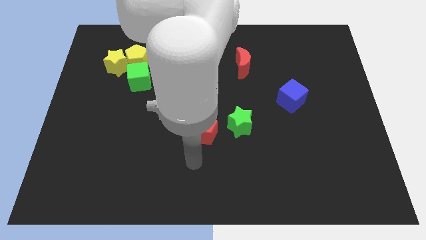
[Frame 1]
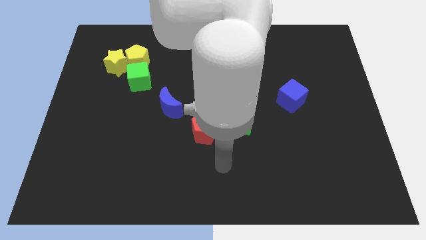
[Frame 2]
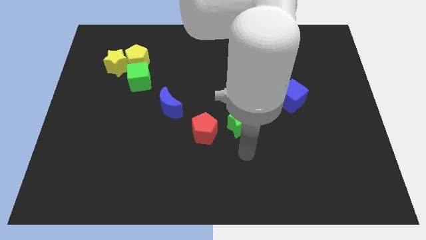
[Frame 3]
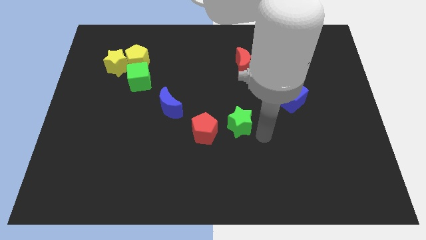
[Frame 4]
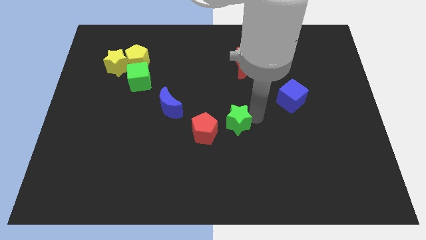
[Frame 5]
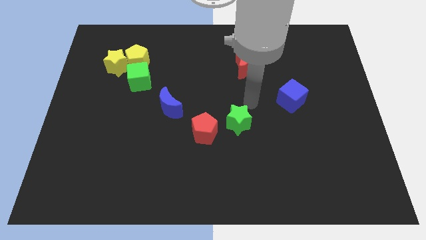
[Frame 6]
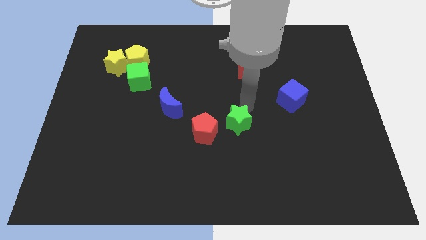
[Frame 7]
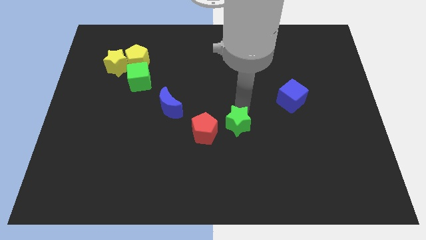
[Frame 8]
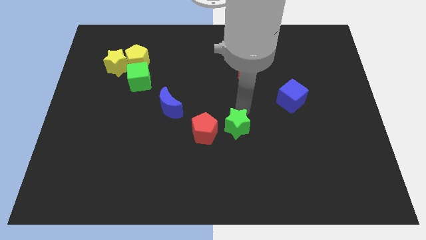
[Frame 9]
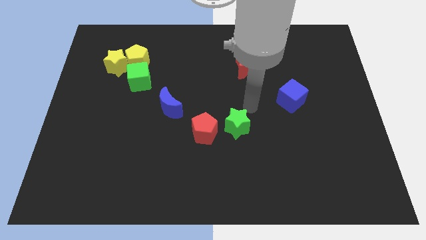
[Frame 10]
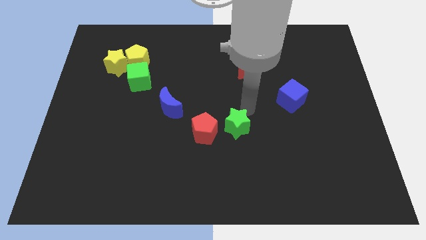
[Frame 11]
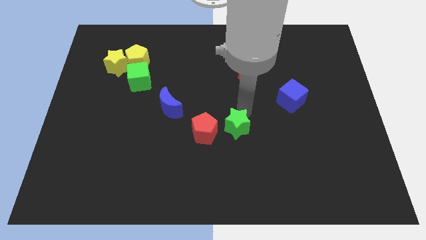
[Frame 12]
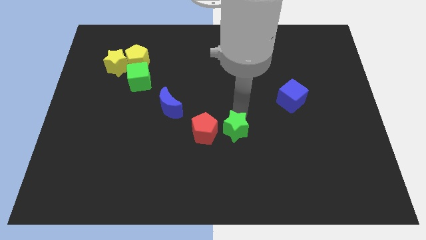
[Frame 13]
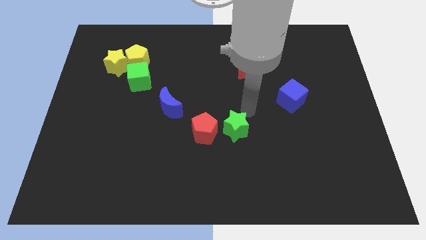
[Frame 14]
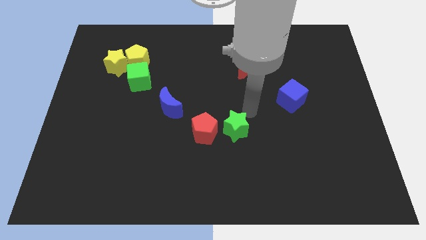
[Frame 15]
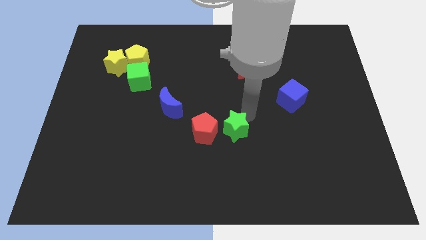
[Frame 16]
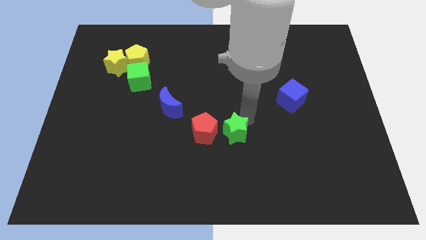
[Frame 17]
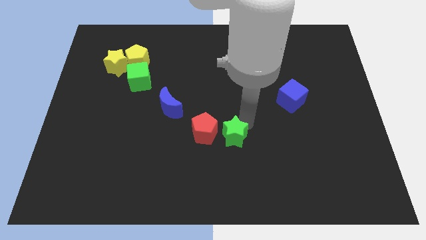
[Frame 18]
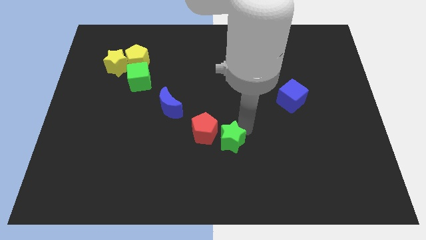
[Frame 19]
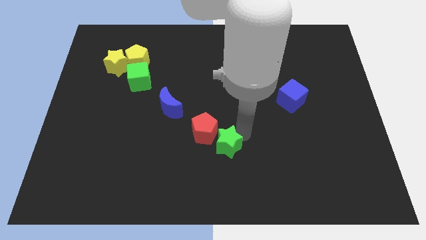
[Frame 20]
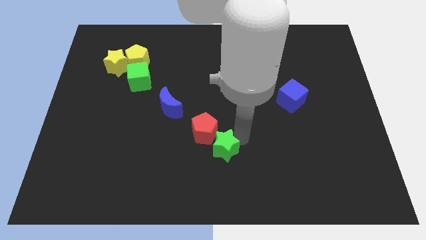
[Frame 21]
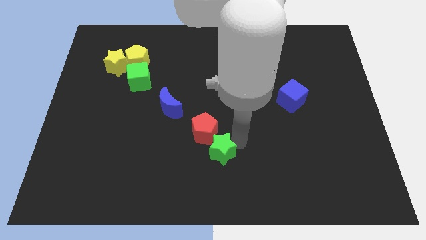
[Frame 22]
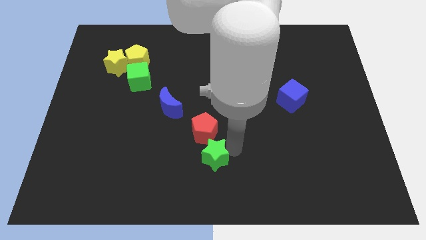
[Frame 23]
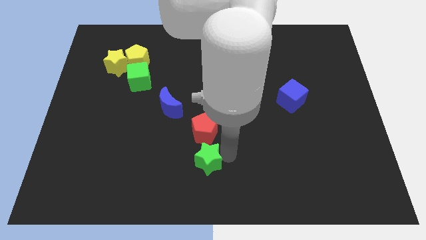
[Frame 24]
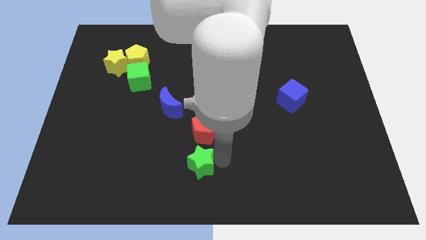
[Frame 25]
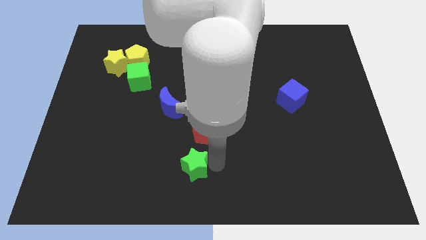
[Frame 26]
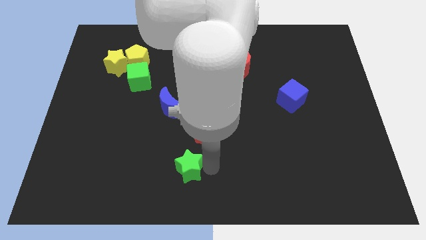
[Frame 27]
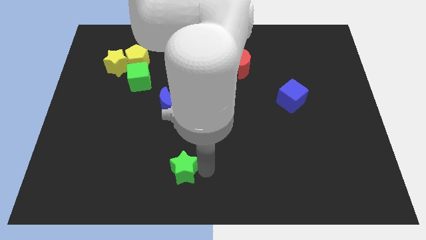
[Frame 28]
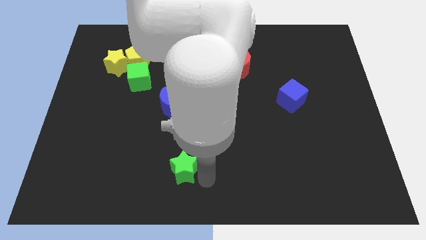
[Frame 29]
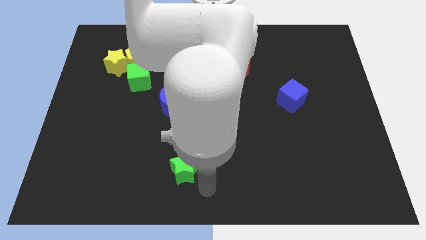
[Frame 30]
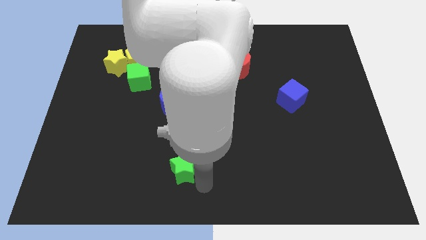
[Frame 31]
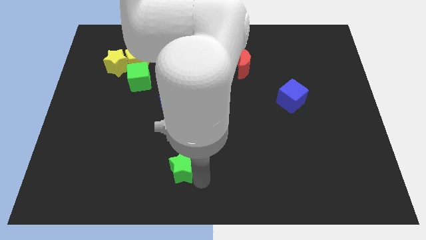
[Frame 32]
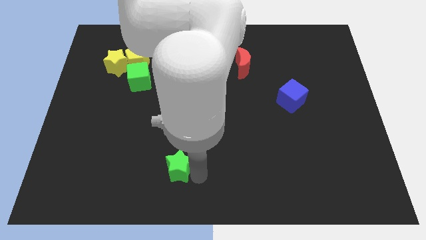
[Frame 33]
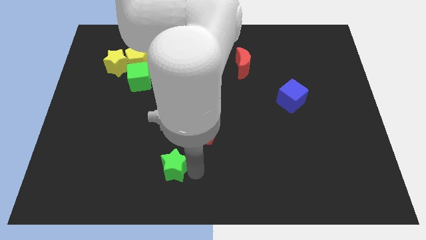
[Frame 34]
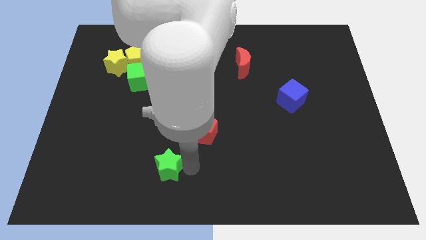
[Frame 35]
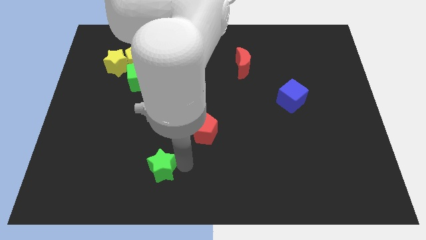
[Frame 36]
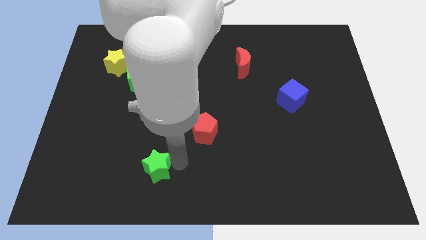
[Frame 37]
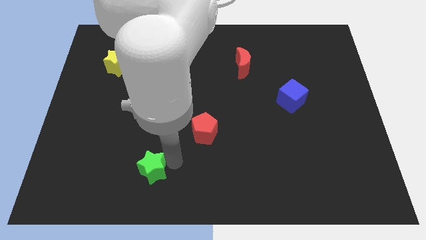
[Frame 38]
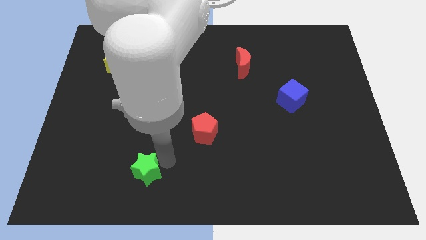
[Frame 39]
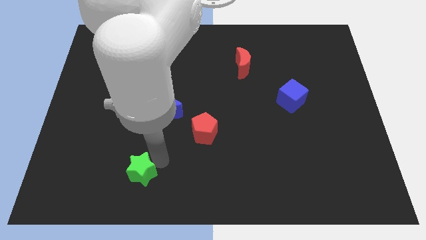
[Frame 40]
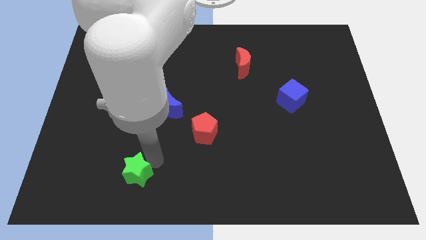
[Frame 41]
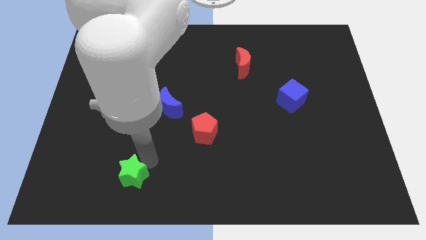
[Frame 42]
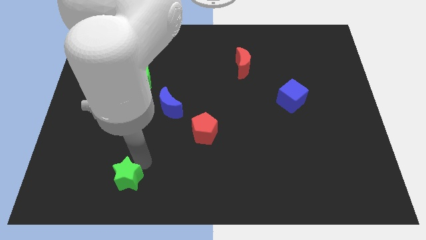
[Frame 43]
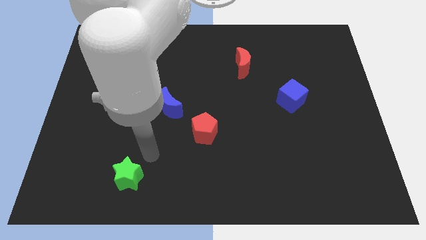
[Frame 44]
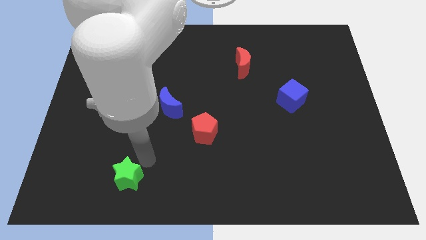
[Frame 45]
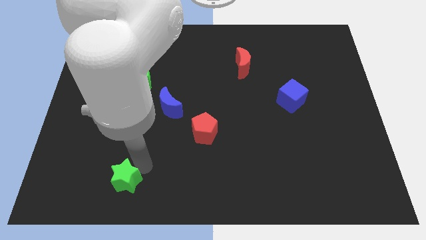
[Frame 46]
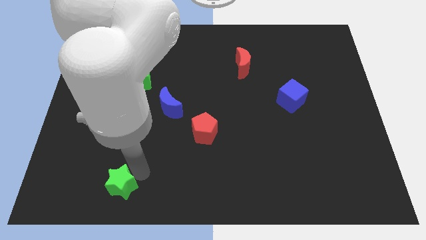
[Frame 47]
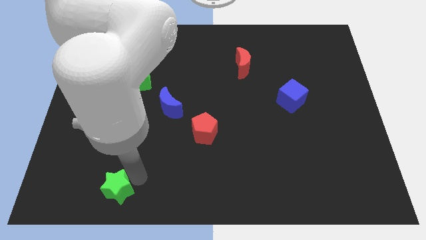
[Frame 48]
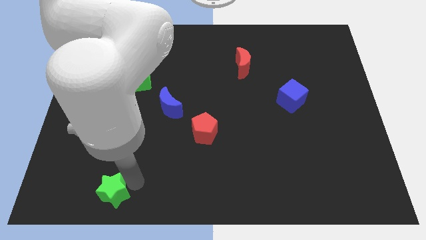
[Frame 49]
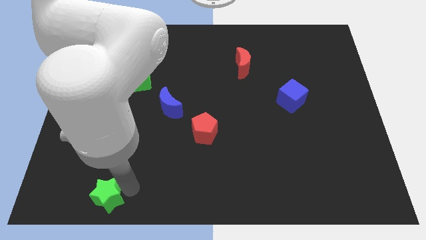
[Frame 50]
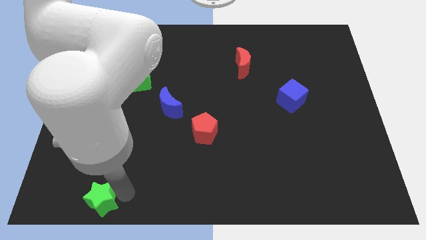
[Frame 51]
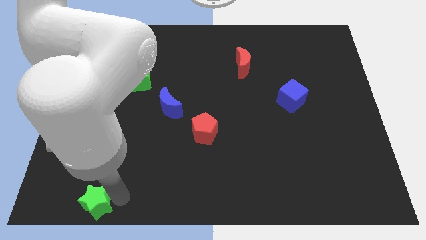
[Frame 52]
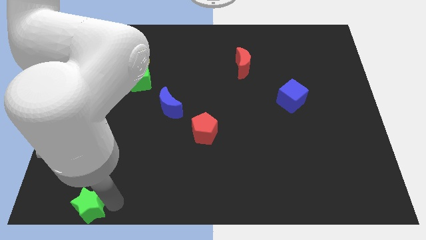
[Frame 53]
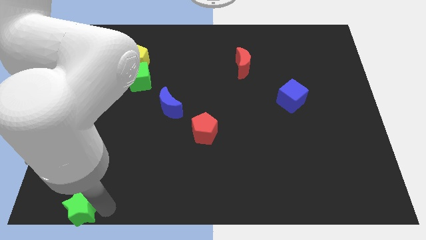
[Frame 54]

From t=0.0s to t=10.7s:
move the green star to the bottom left of the board

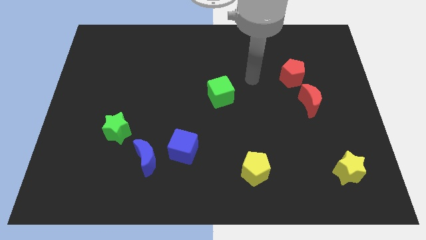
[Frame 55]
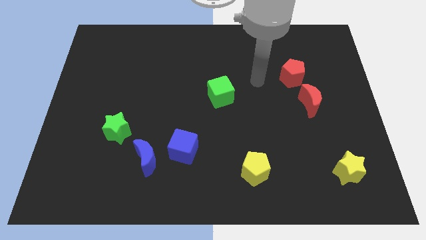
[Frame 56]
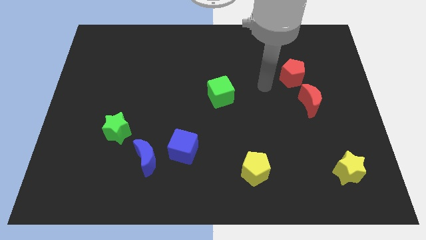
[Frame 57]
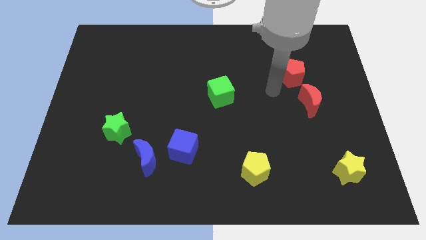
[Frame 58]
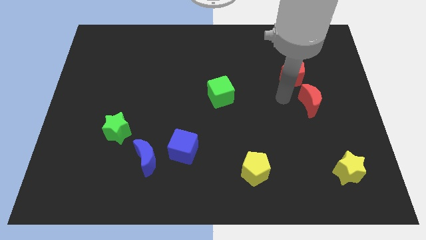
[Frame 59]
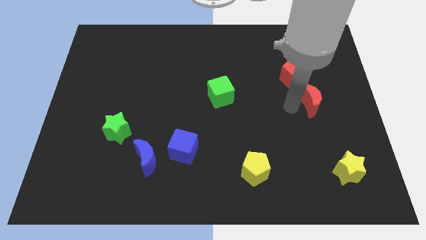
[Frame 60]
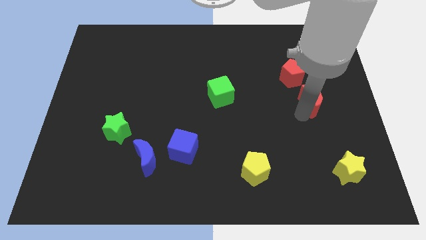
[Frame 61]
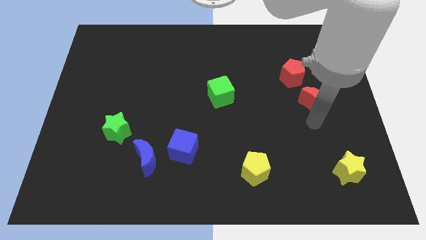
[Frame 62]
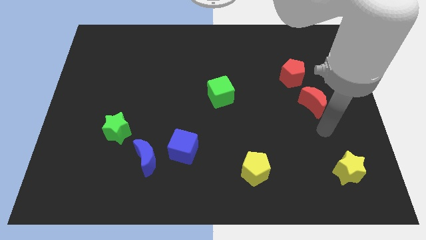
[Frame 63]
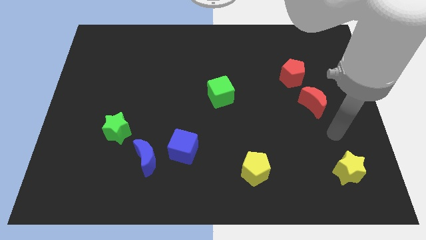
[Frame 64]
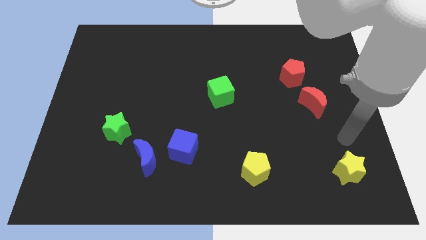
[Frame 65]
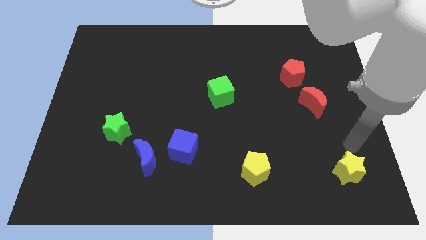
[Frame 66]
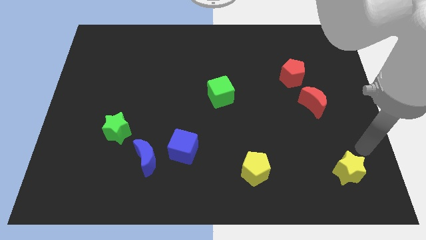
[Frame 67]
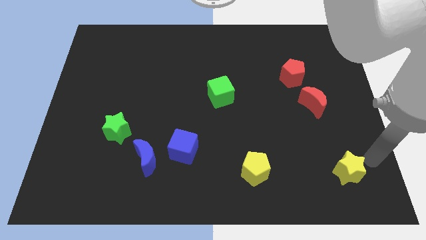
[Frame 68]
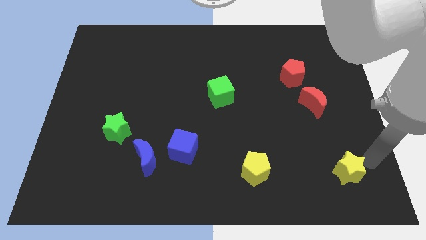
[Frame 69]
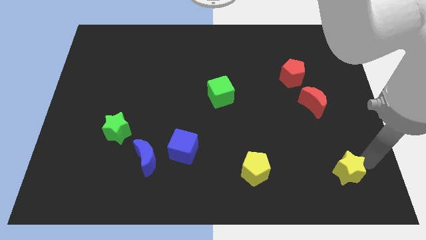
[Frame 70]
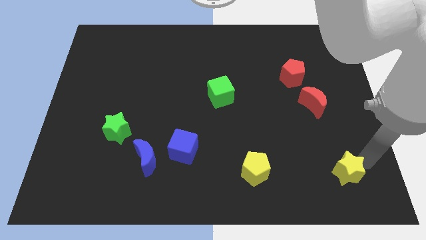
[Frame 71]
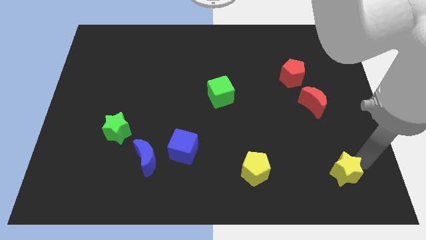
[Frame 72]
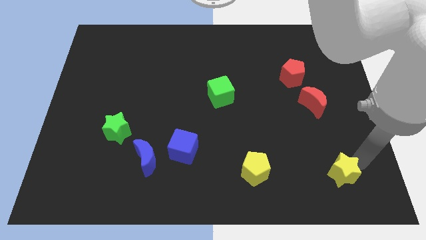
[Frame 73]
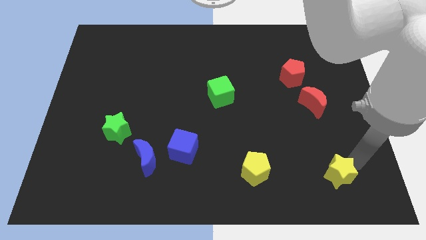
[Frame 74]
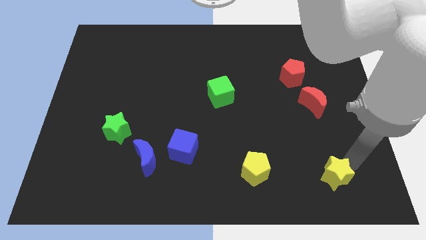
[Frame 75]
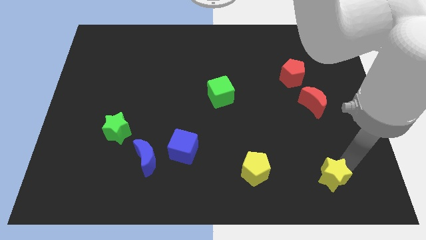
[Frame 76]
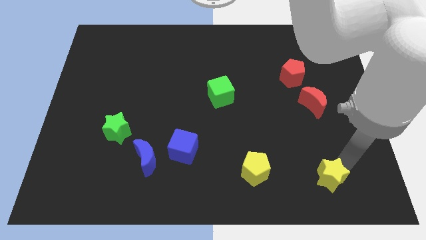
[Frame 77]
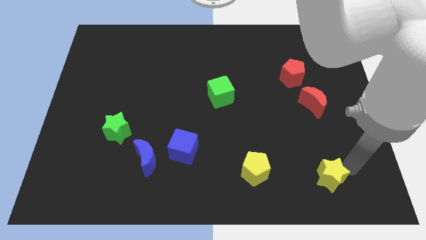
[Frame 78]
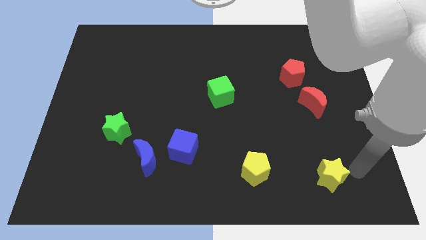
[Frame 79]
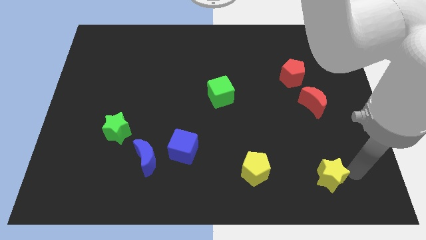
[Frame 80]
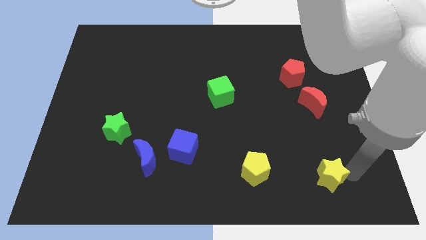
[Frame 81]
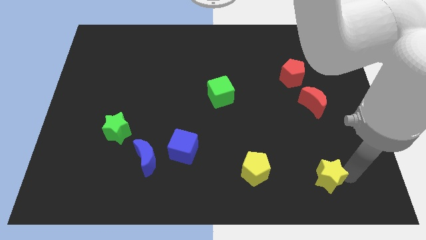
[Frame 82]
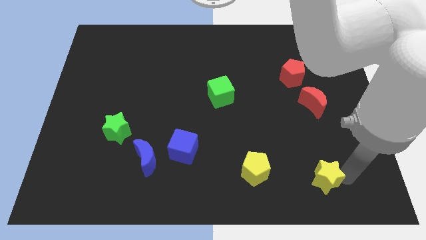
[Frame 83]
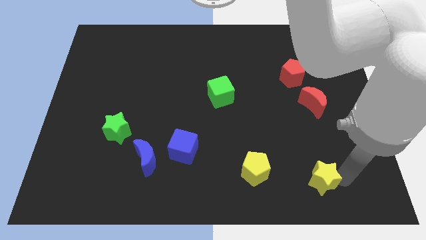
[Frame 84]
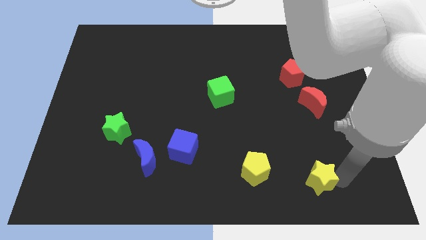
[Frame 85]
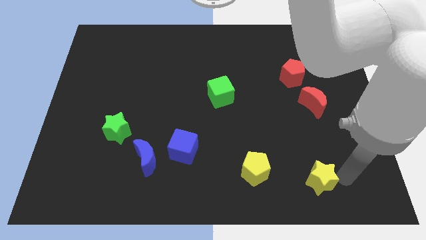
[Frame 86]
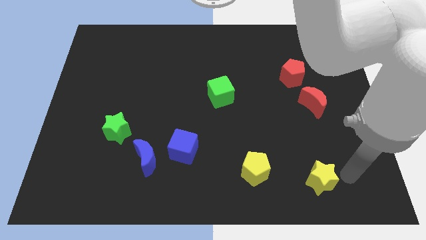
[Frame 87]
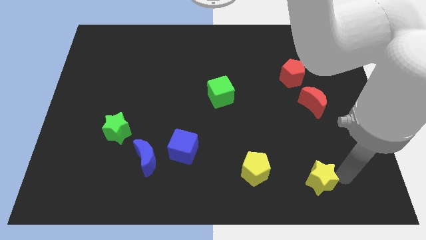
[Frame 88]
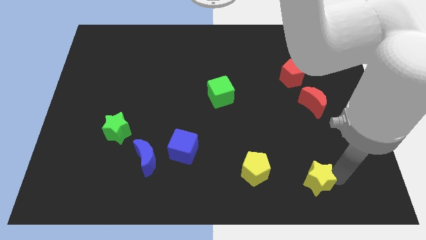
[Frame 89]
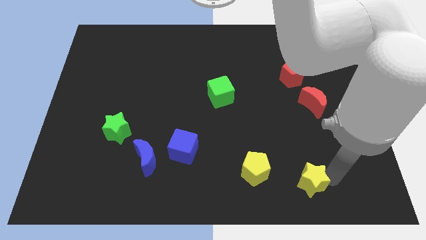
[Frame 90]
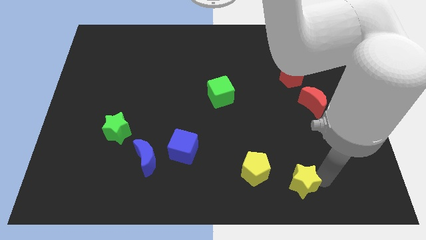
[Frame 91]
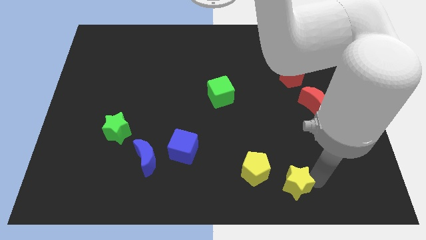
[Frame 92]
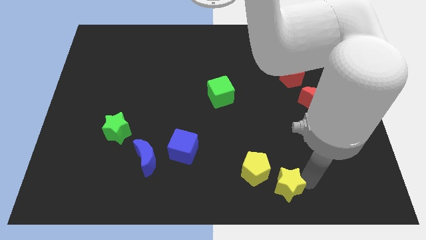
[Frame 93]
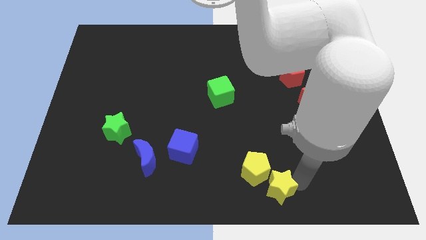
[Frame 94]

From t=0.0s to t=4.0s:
move the yellow star to the bottom side
